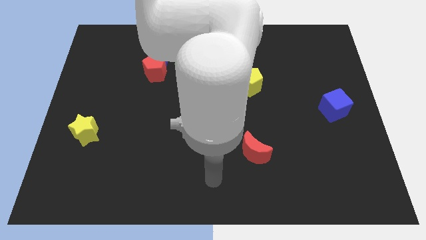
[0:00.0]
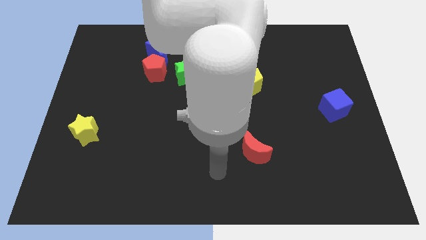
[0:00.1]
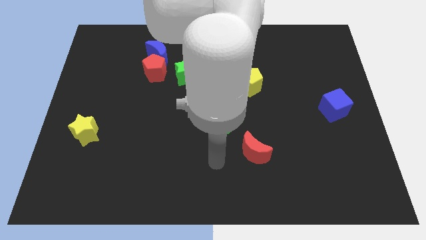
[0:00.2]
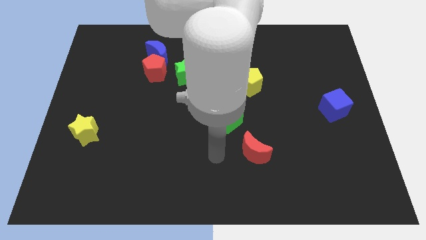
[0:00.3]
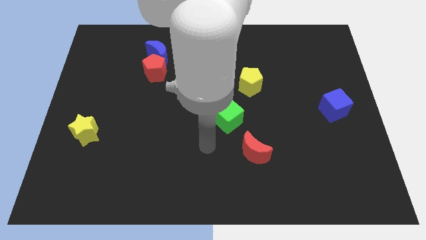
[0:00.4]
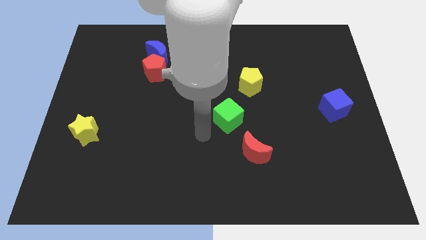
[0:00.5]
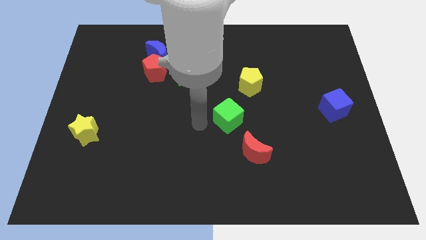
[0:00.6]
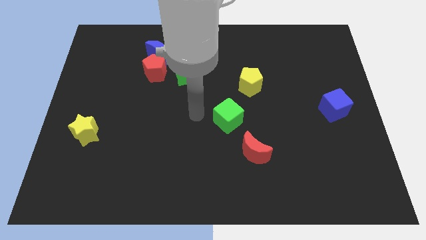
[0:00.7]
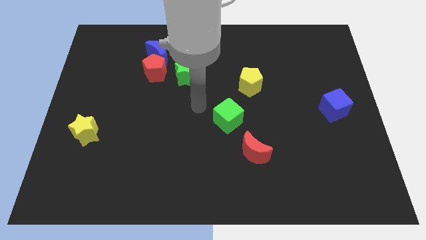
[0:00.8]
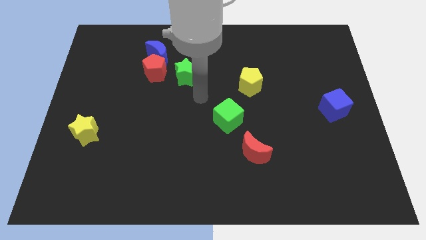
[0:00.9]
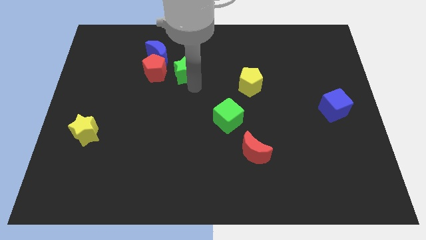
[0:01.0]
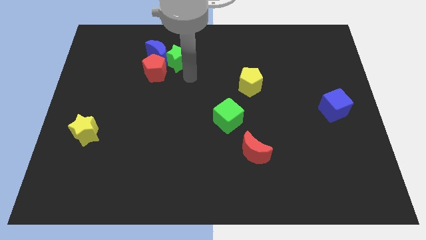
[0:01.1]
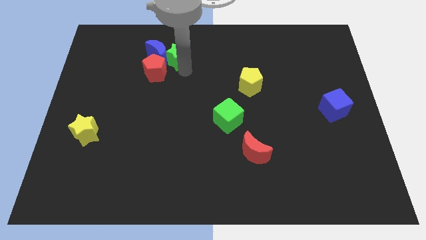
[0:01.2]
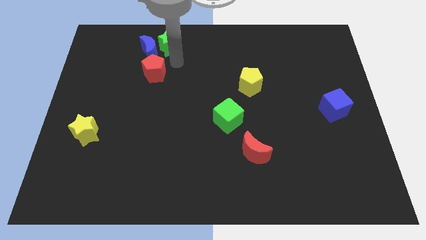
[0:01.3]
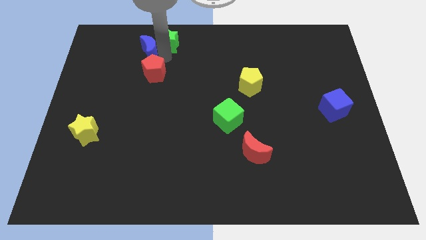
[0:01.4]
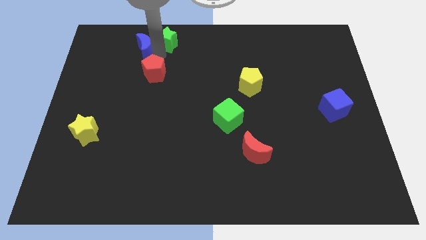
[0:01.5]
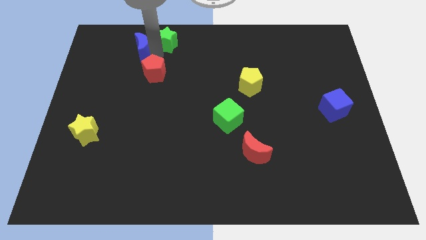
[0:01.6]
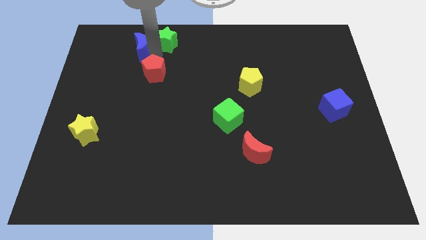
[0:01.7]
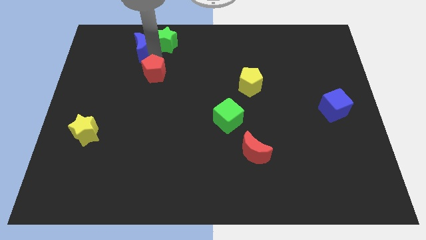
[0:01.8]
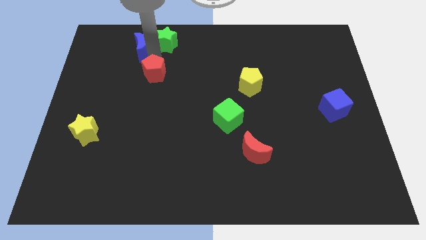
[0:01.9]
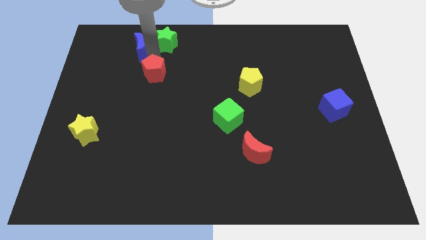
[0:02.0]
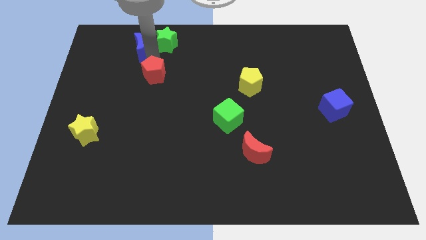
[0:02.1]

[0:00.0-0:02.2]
pull the red pentagon apart from the blue moon and green star

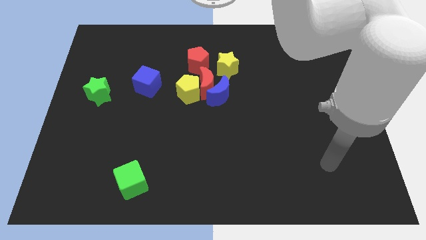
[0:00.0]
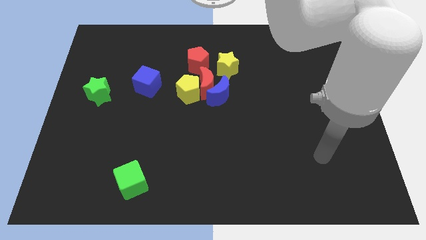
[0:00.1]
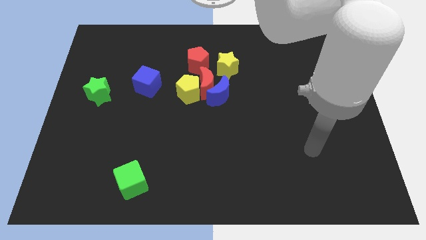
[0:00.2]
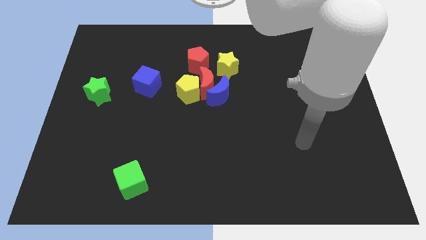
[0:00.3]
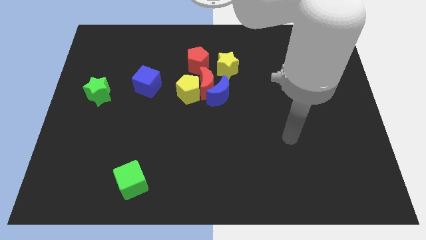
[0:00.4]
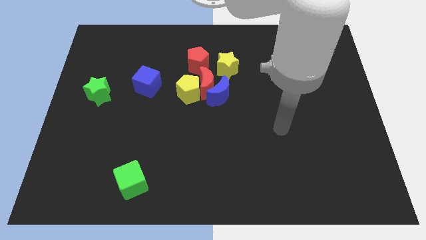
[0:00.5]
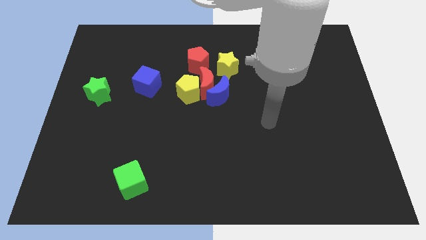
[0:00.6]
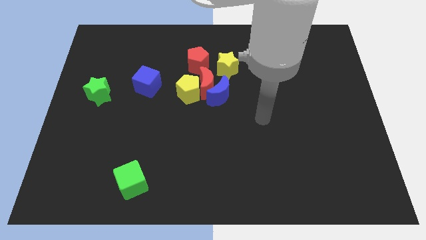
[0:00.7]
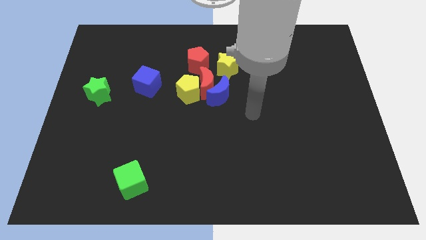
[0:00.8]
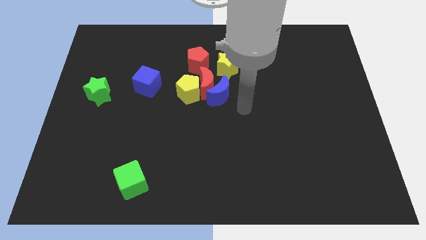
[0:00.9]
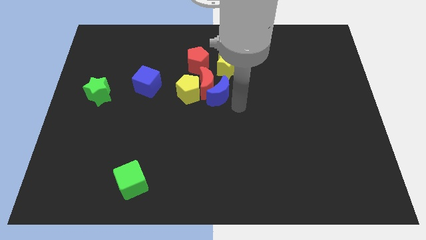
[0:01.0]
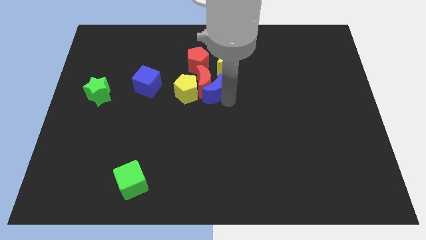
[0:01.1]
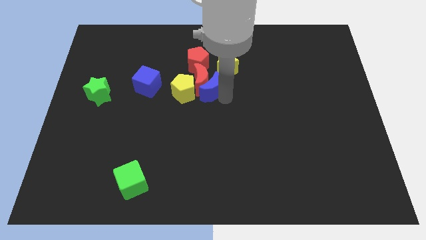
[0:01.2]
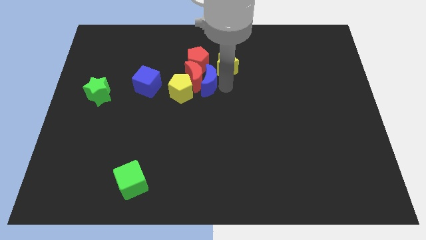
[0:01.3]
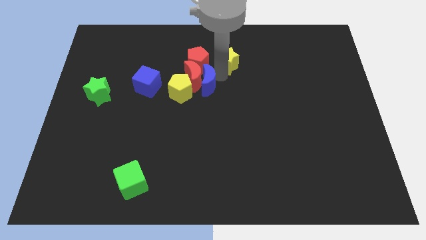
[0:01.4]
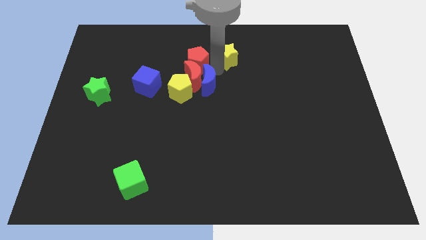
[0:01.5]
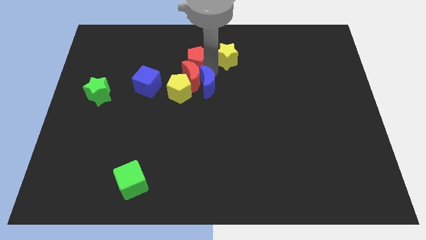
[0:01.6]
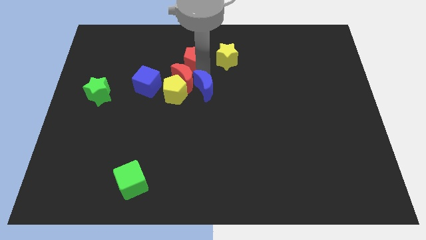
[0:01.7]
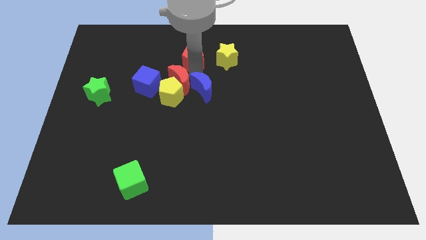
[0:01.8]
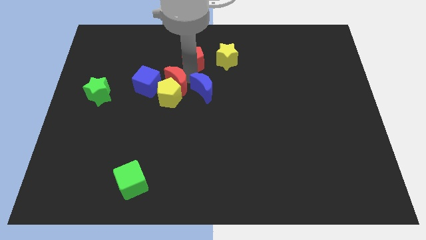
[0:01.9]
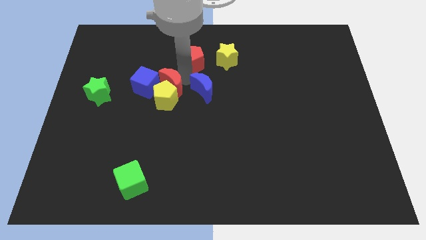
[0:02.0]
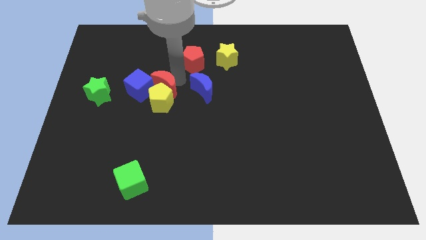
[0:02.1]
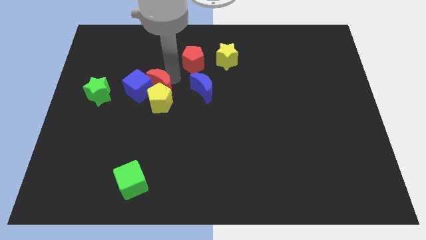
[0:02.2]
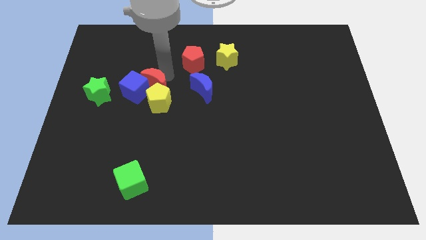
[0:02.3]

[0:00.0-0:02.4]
pull the red moon apart from the group of blocks

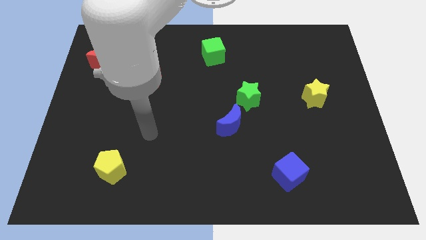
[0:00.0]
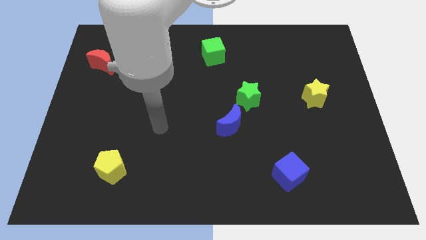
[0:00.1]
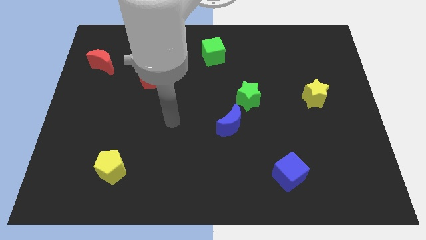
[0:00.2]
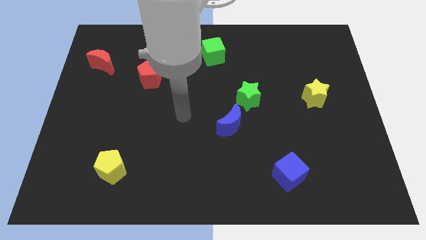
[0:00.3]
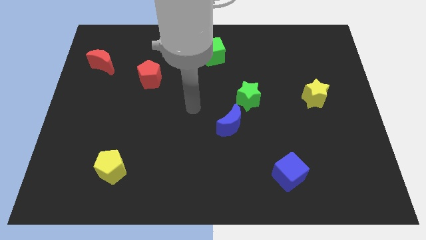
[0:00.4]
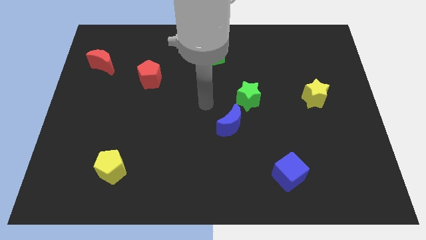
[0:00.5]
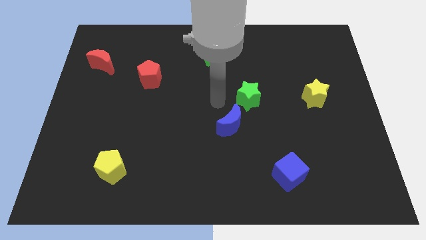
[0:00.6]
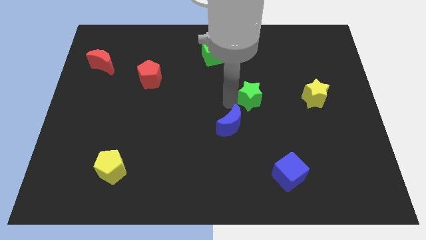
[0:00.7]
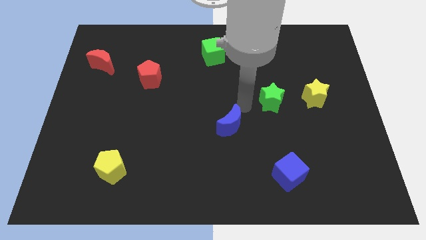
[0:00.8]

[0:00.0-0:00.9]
move the blue moon away from the green star

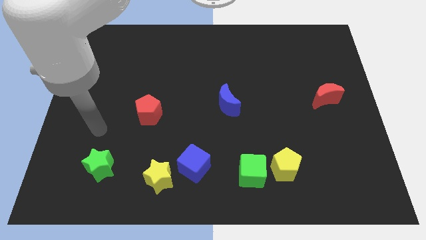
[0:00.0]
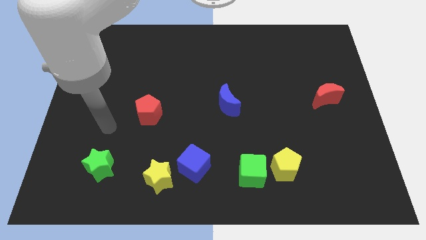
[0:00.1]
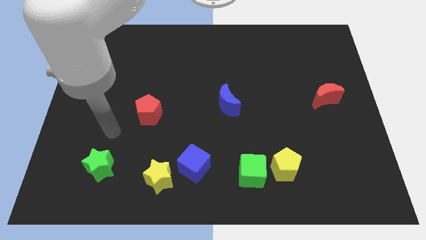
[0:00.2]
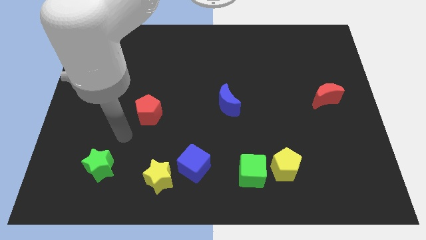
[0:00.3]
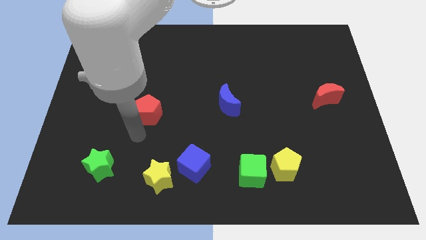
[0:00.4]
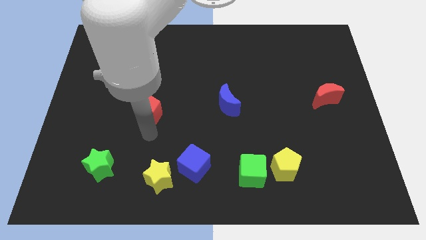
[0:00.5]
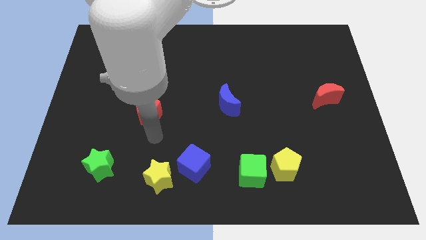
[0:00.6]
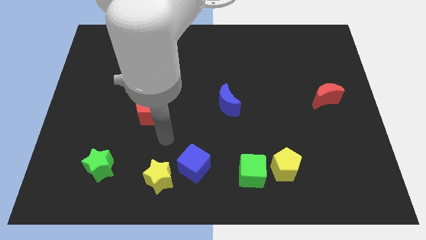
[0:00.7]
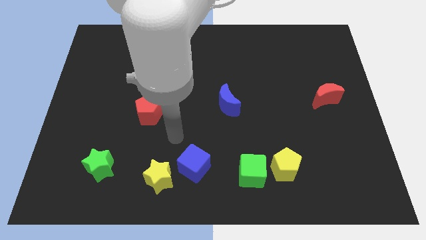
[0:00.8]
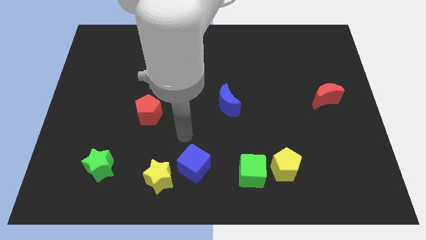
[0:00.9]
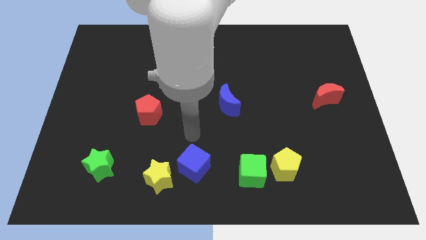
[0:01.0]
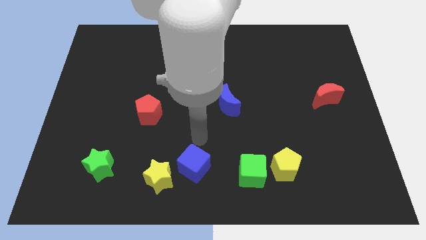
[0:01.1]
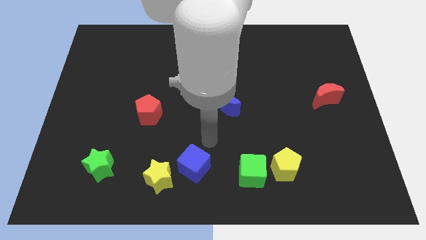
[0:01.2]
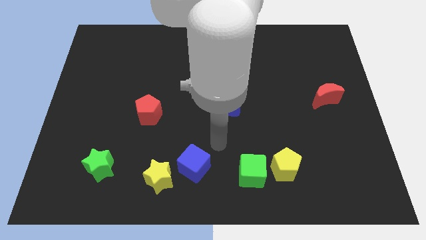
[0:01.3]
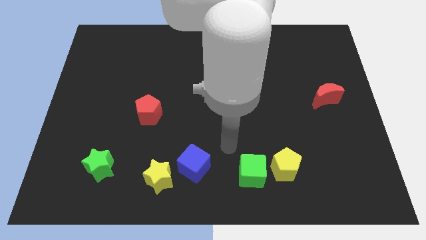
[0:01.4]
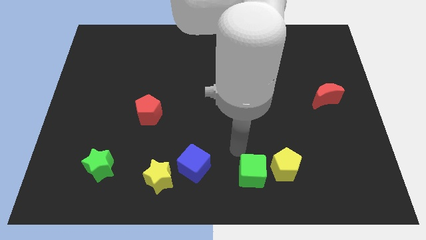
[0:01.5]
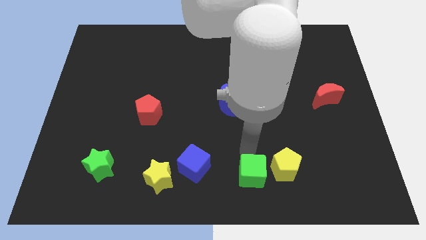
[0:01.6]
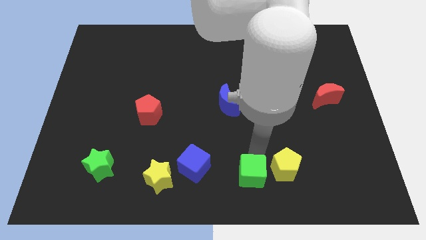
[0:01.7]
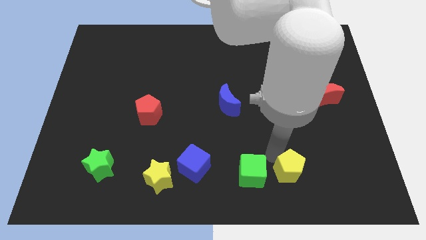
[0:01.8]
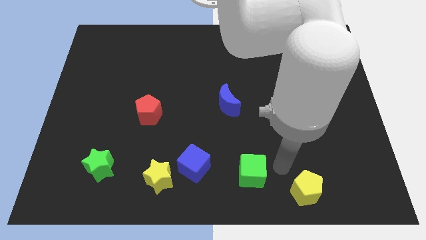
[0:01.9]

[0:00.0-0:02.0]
pull the green cube apart from the yellow pentagon

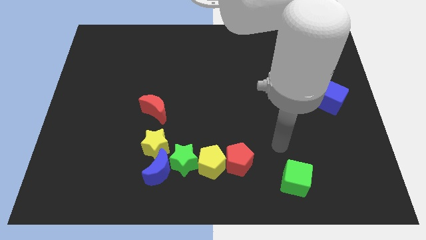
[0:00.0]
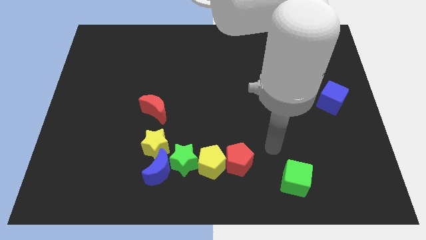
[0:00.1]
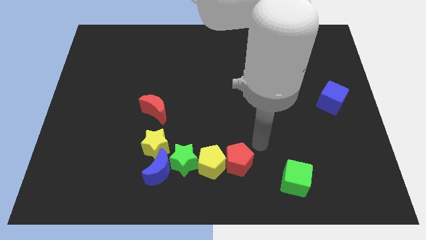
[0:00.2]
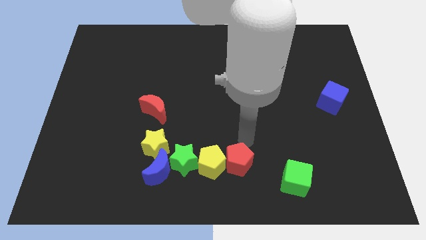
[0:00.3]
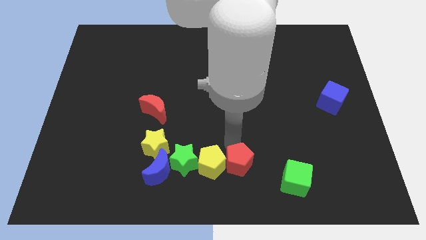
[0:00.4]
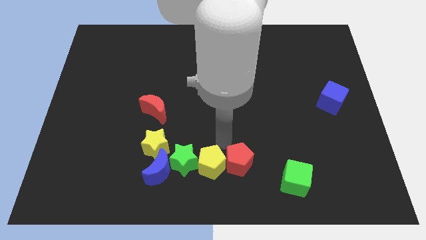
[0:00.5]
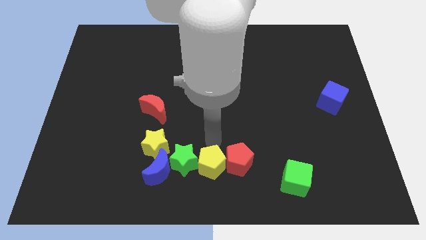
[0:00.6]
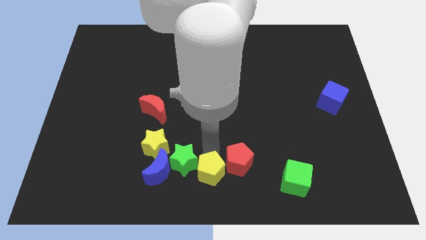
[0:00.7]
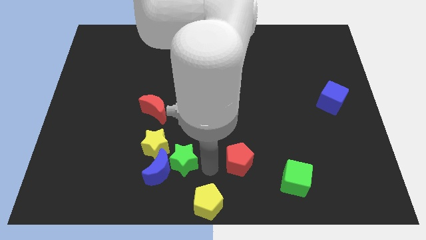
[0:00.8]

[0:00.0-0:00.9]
move the red pentagon away from the yellow pentagon

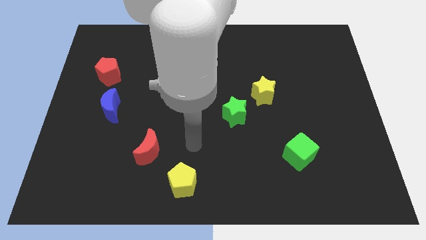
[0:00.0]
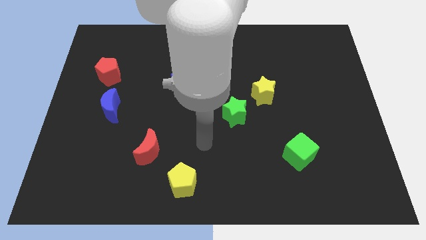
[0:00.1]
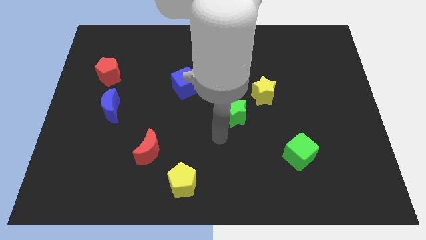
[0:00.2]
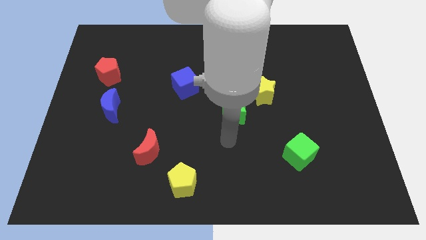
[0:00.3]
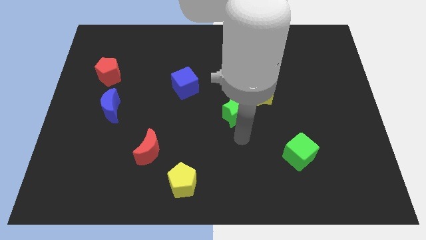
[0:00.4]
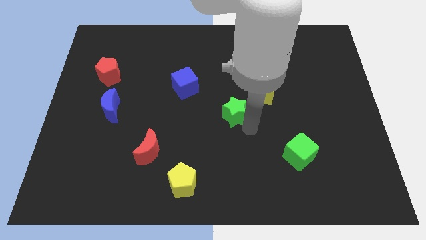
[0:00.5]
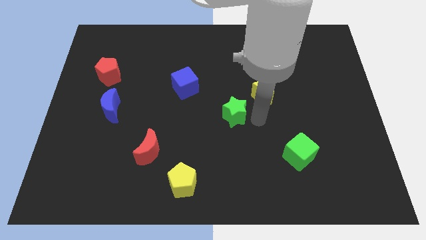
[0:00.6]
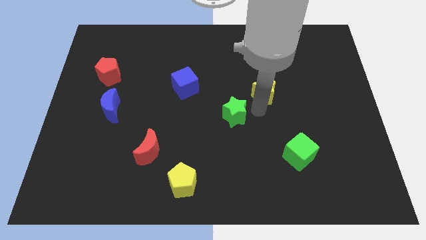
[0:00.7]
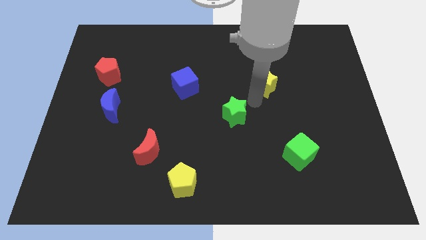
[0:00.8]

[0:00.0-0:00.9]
move the green star away from the yellow star
